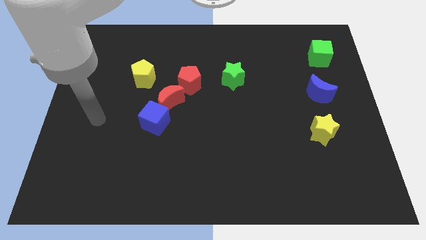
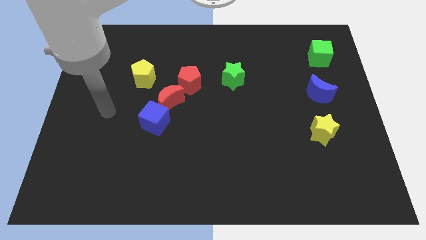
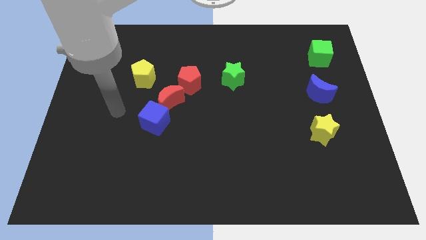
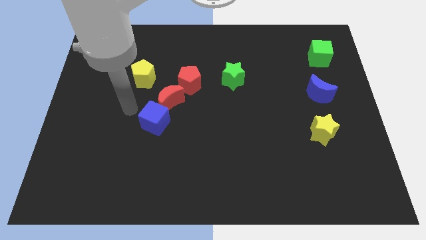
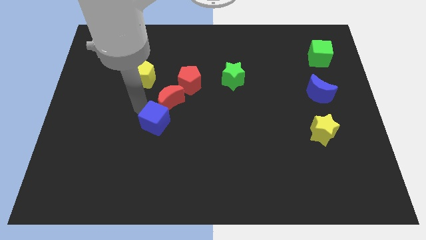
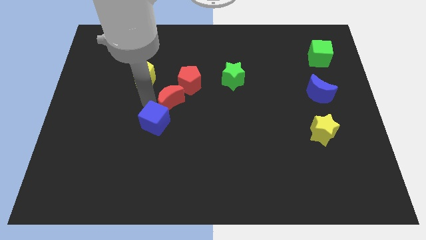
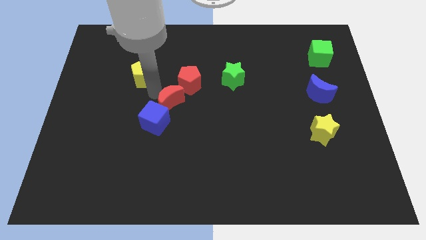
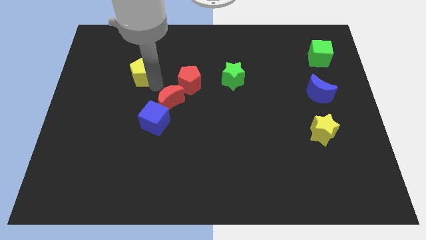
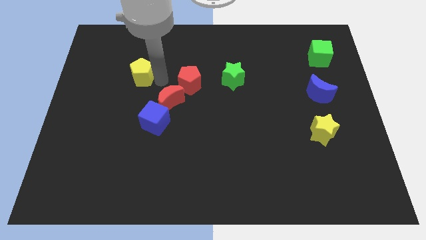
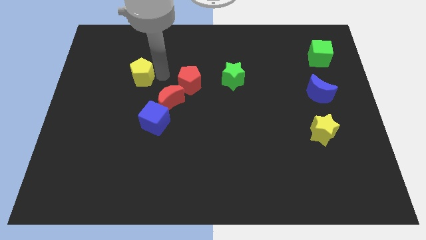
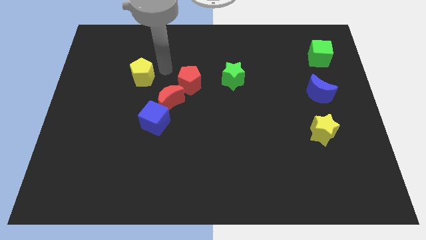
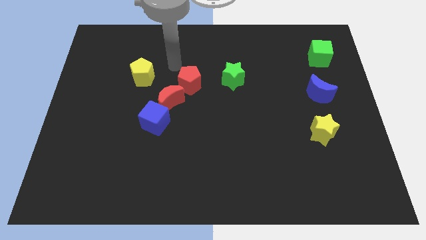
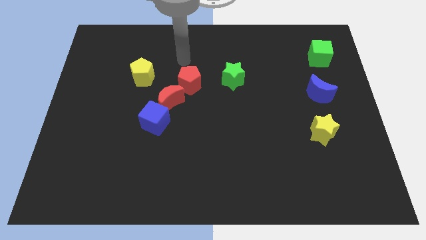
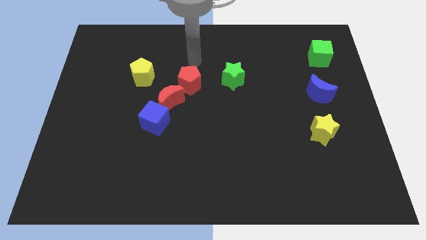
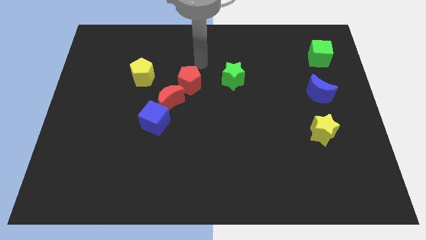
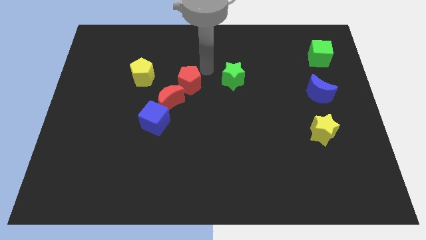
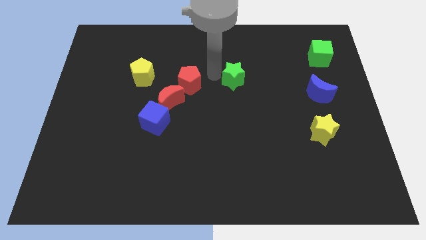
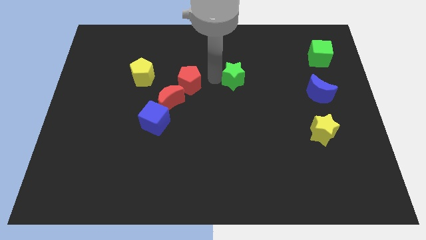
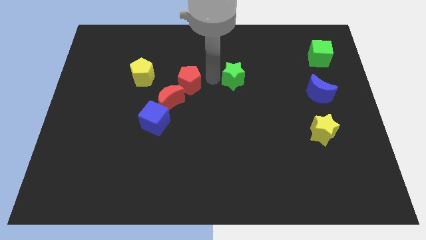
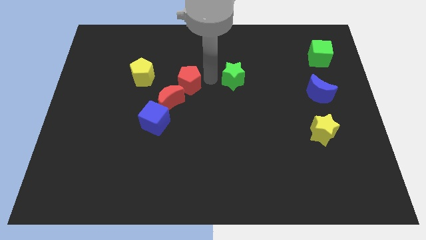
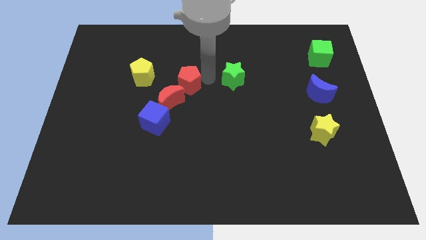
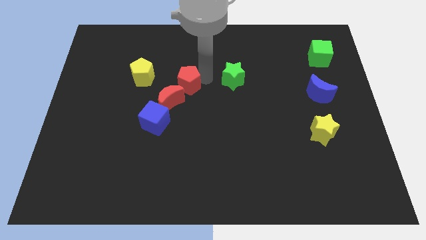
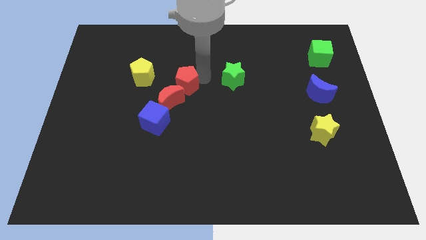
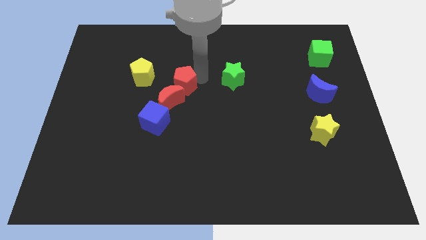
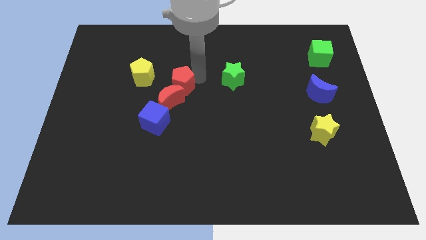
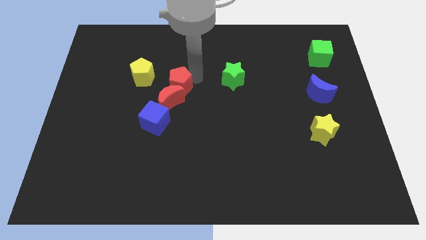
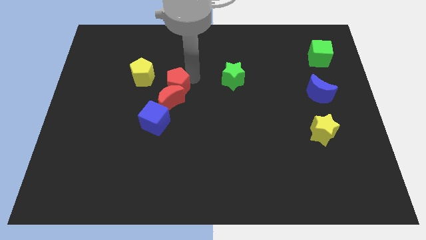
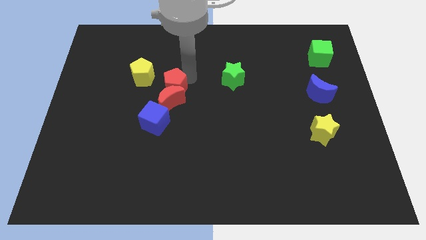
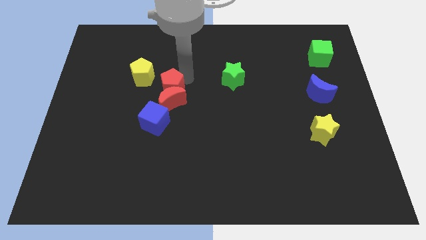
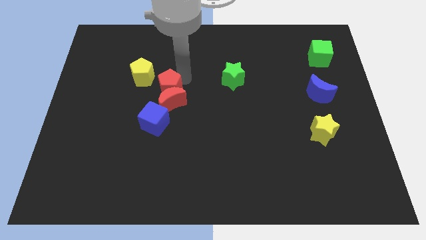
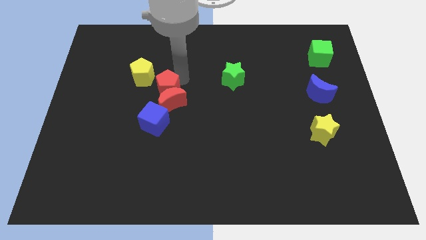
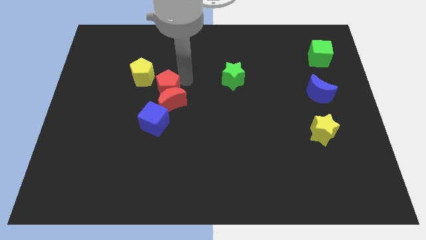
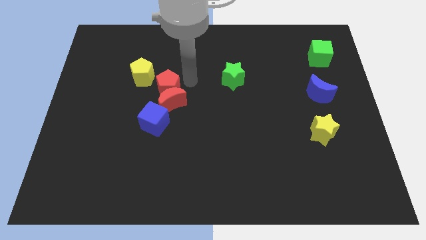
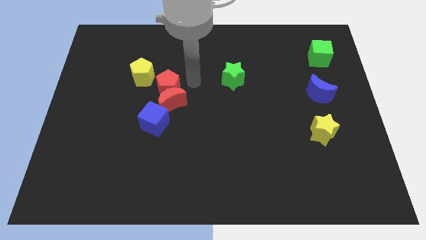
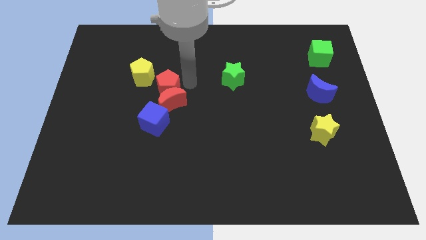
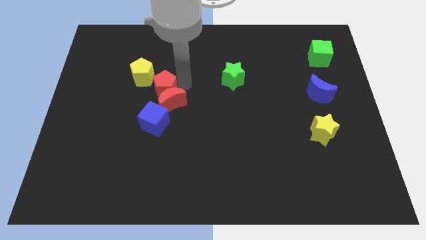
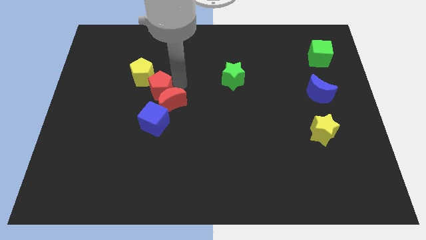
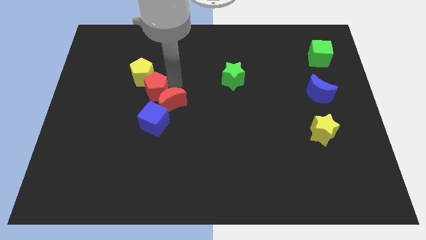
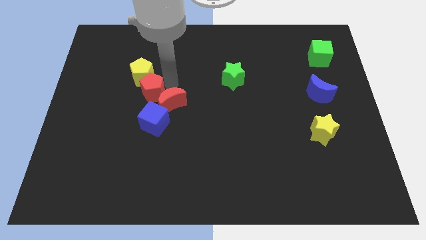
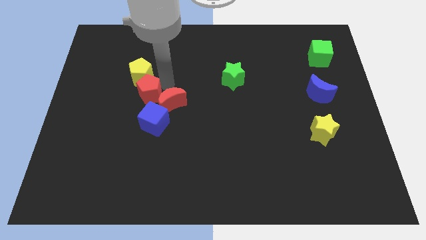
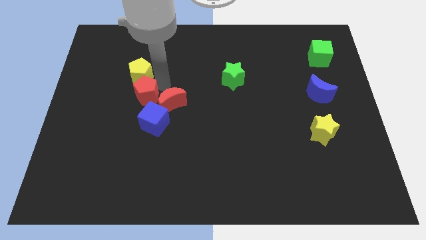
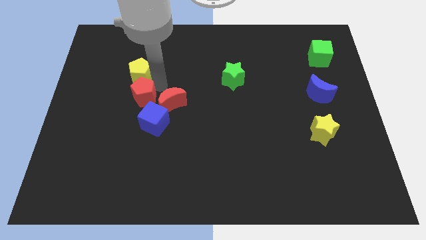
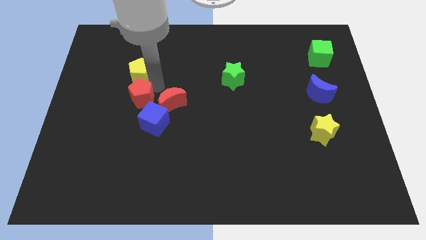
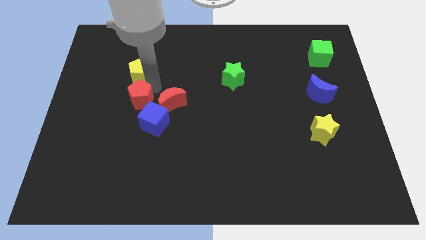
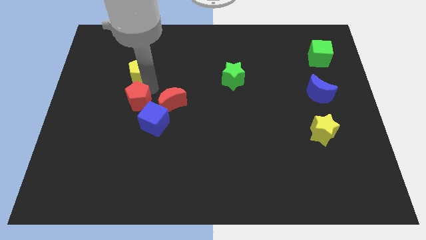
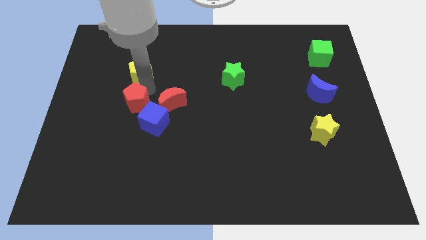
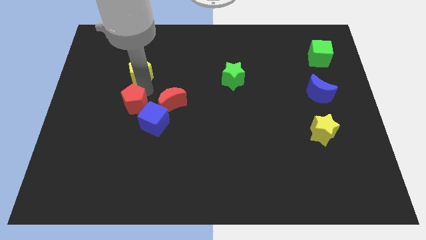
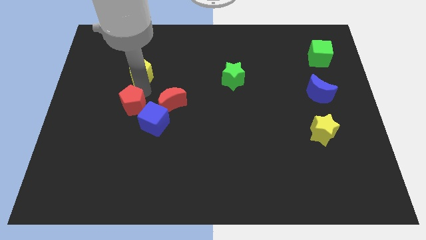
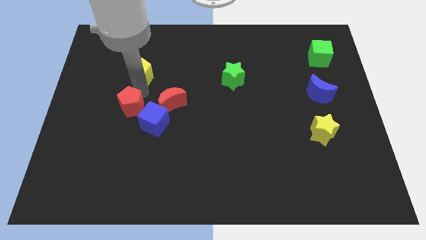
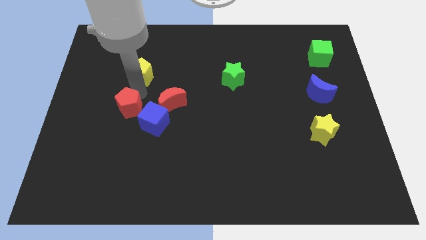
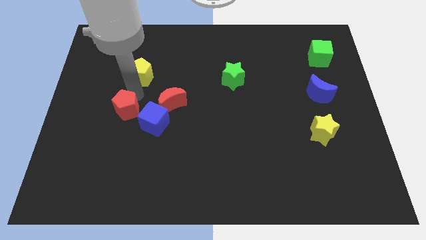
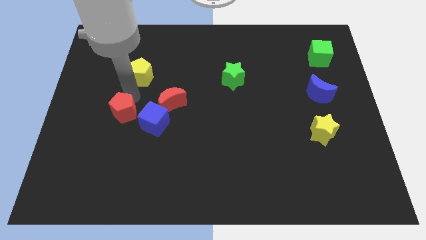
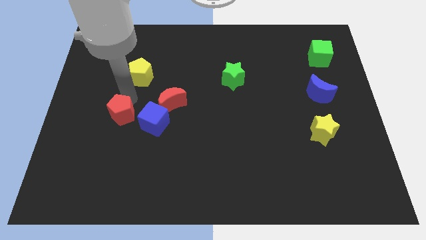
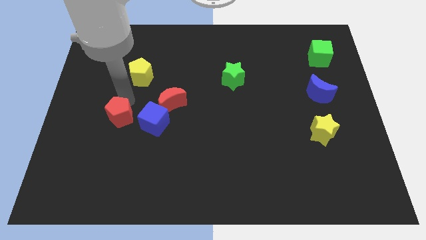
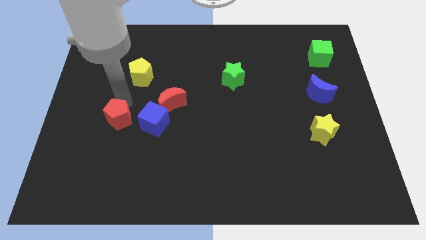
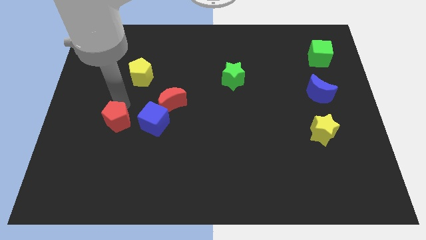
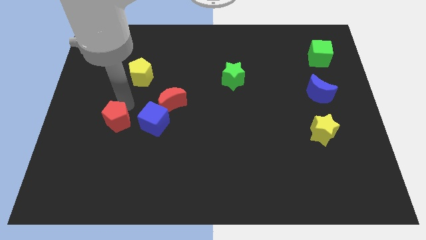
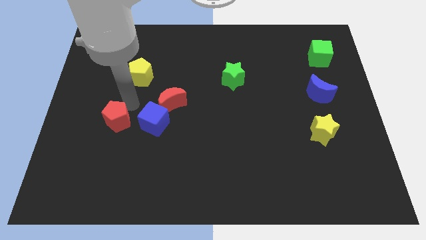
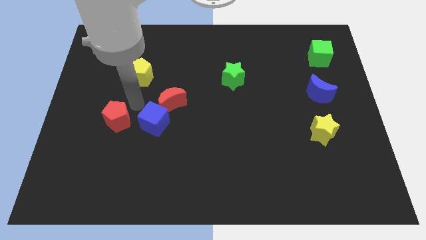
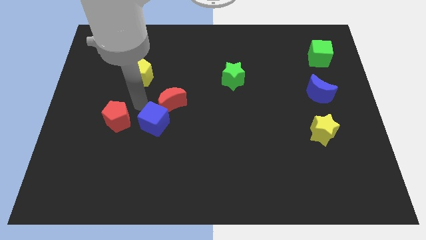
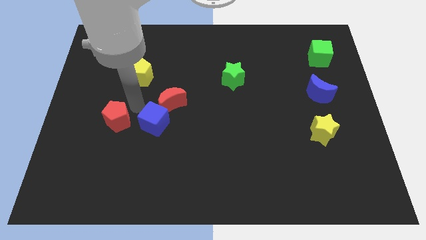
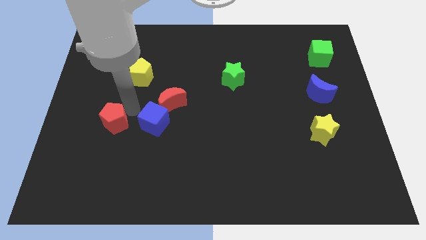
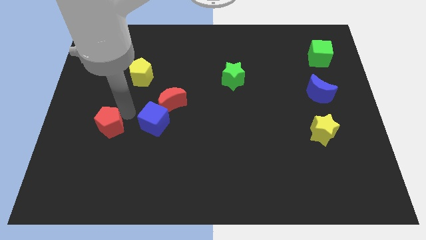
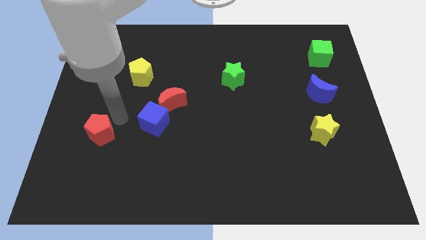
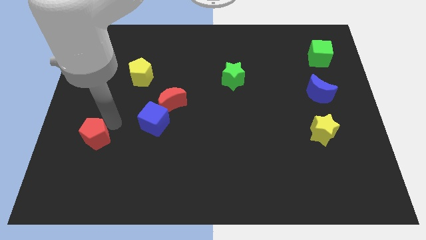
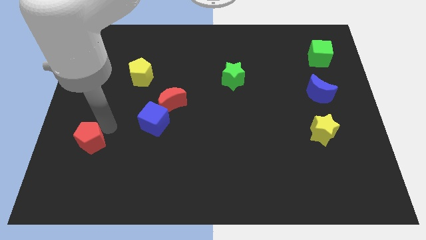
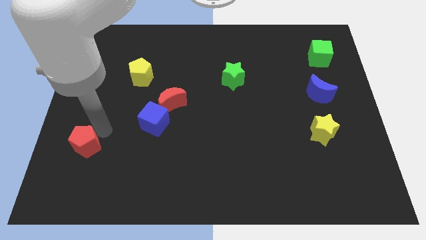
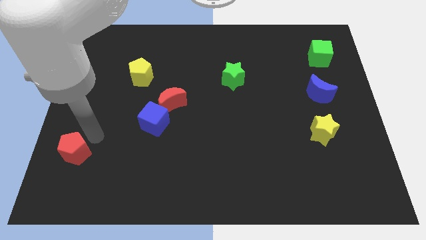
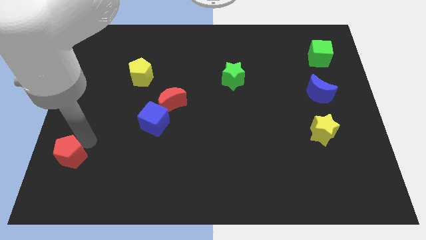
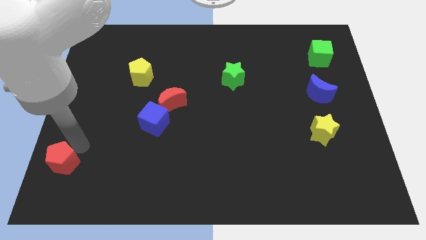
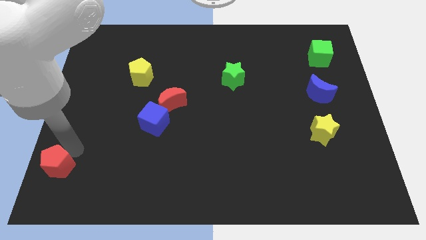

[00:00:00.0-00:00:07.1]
push the red pentagon to the bottom left of the board
